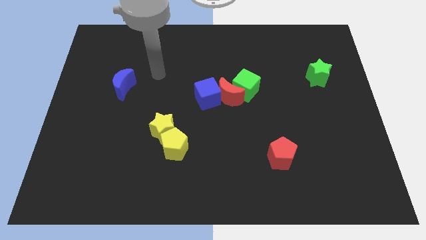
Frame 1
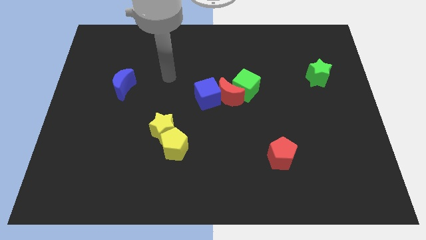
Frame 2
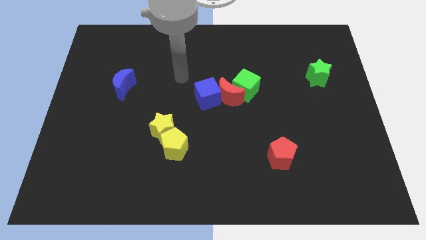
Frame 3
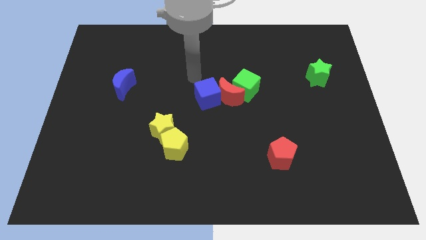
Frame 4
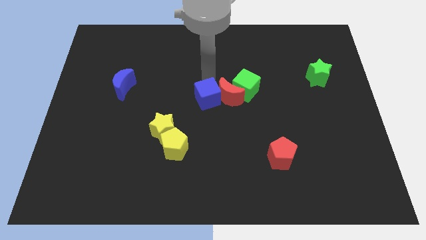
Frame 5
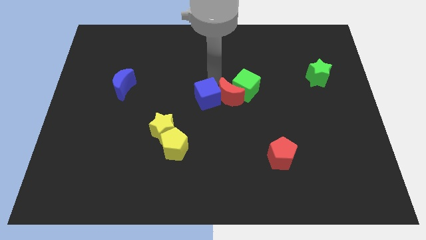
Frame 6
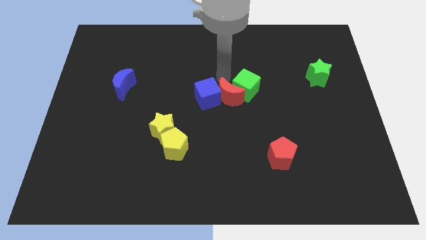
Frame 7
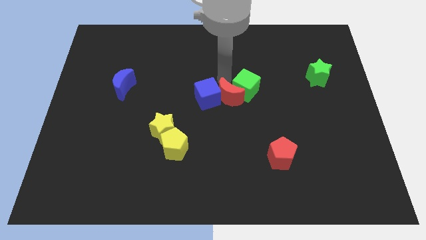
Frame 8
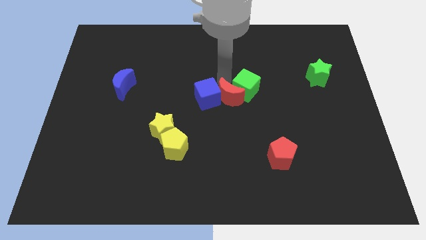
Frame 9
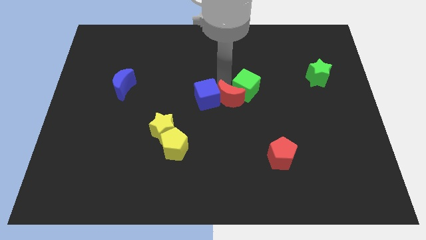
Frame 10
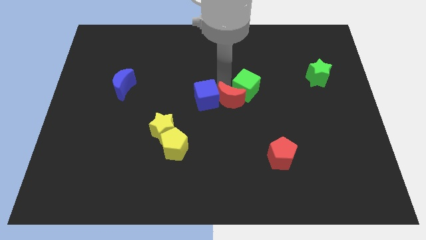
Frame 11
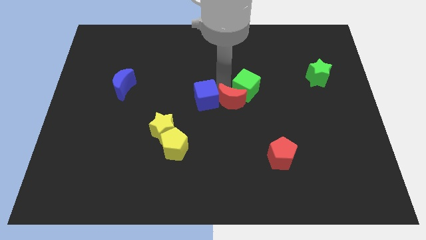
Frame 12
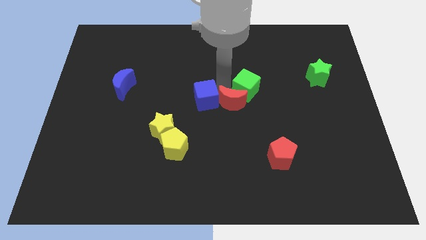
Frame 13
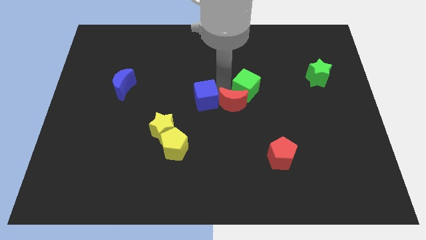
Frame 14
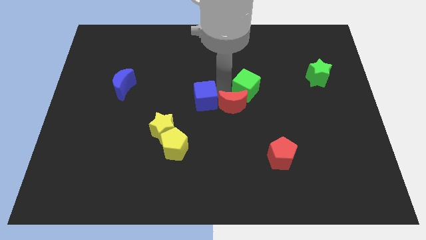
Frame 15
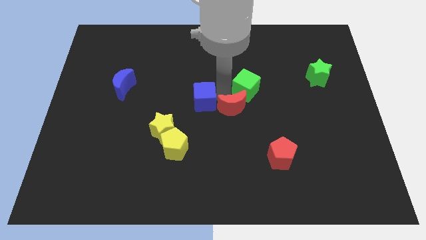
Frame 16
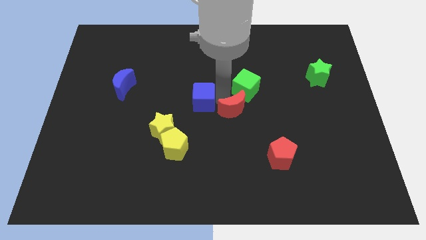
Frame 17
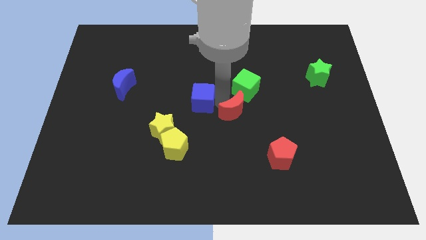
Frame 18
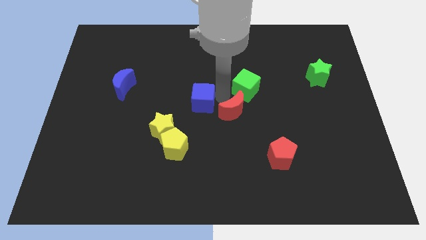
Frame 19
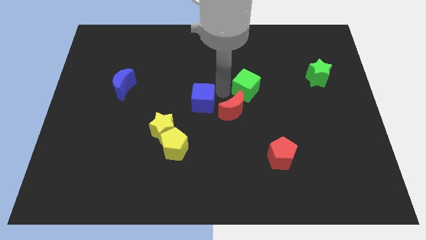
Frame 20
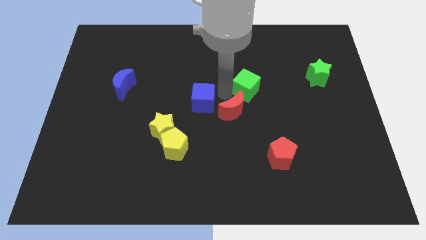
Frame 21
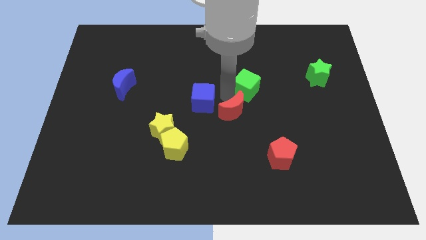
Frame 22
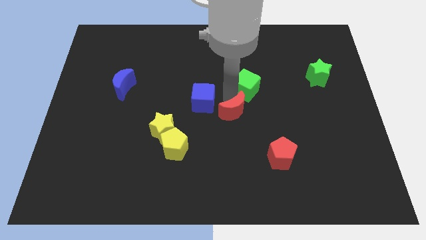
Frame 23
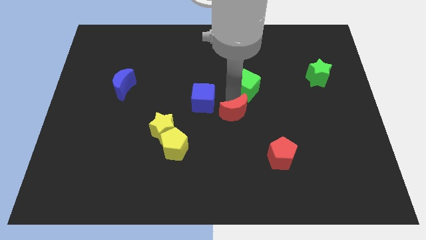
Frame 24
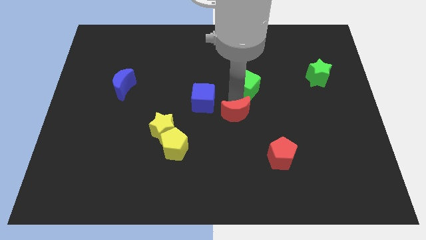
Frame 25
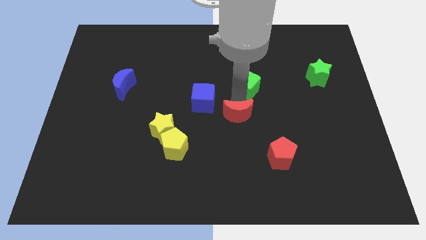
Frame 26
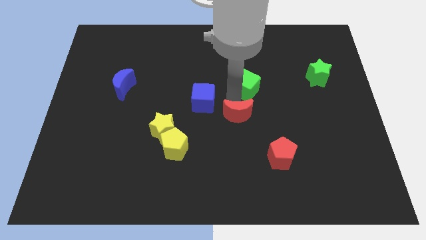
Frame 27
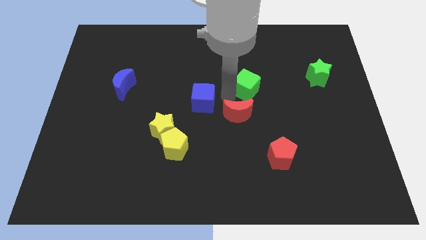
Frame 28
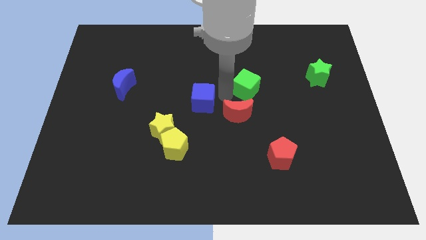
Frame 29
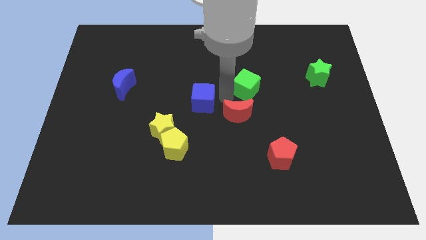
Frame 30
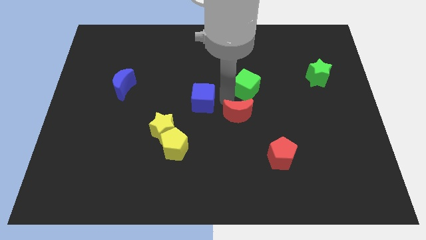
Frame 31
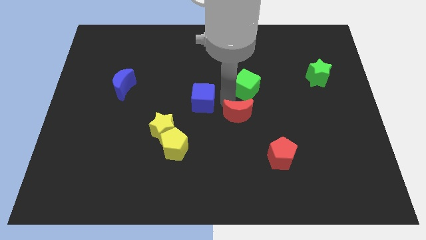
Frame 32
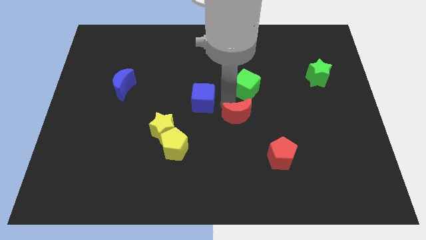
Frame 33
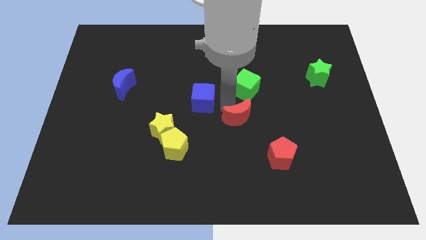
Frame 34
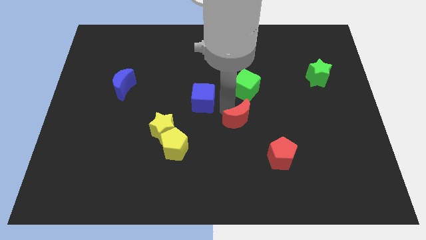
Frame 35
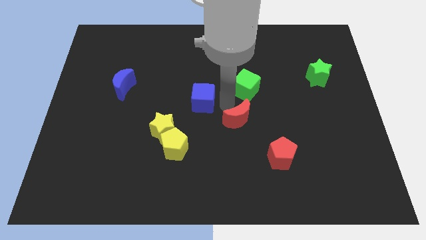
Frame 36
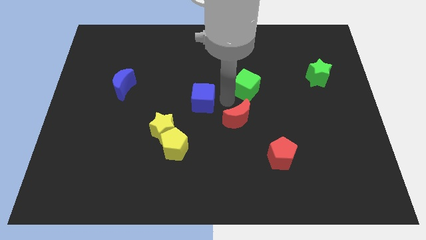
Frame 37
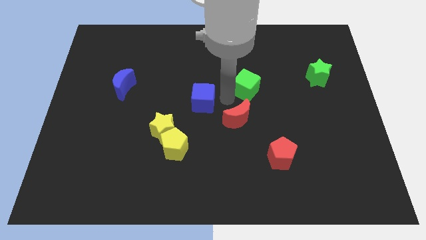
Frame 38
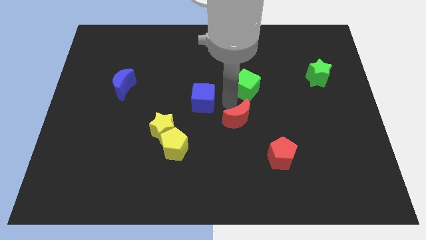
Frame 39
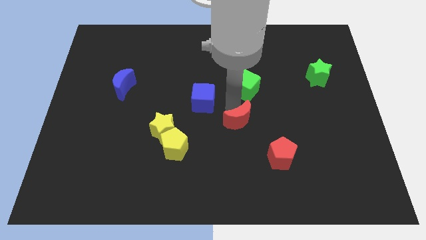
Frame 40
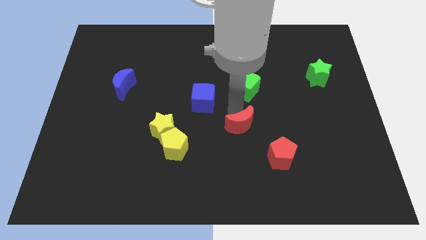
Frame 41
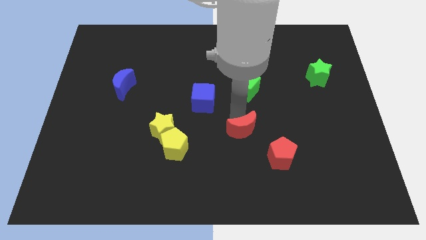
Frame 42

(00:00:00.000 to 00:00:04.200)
pull the red moon apart from the green cube and blue cube

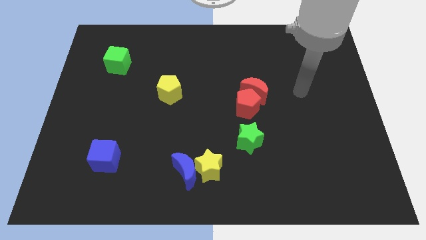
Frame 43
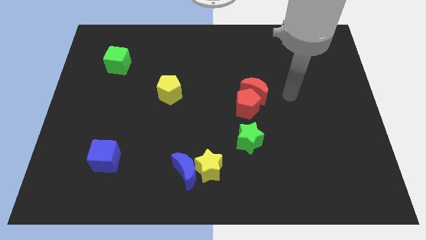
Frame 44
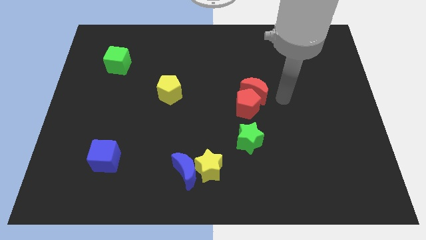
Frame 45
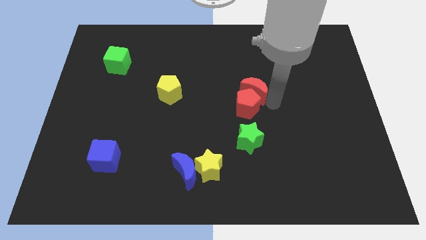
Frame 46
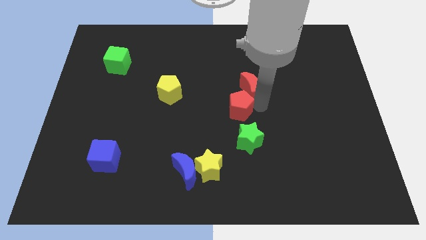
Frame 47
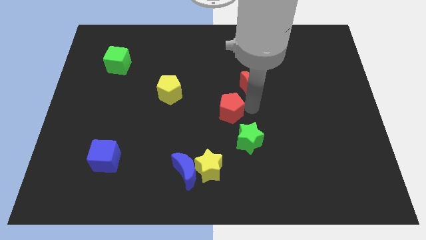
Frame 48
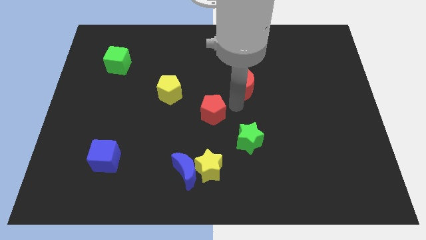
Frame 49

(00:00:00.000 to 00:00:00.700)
pull the red moon apart from the red pentagon

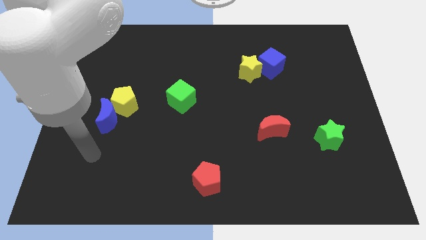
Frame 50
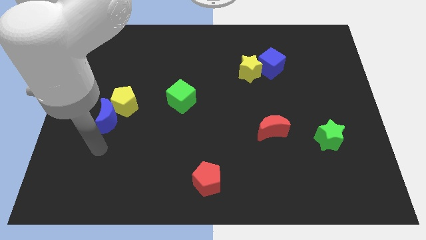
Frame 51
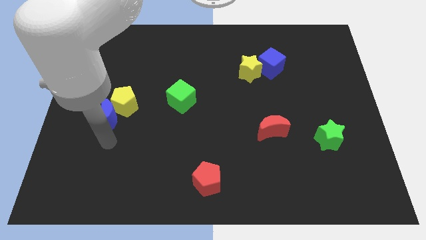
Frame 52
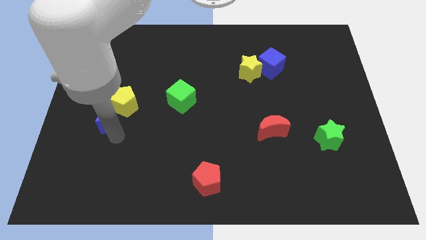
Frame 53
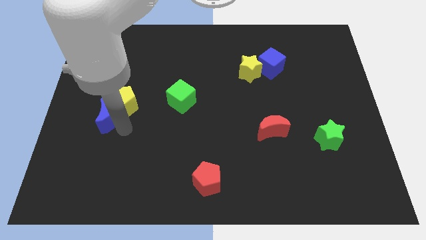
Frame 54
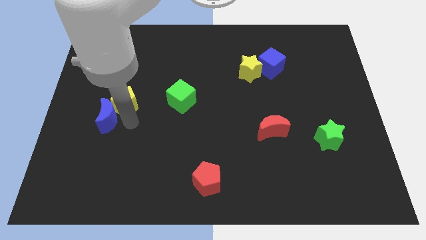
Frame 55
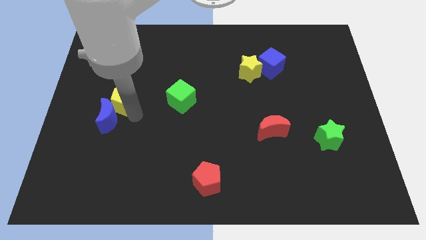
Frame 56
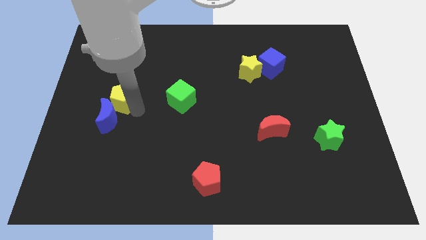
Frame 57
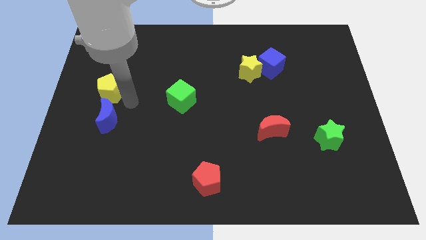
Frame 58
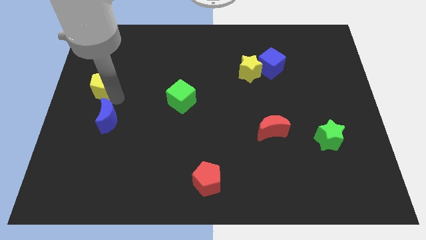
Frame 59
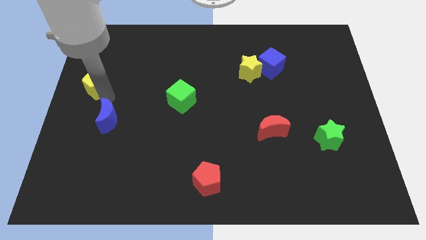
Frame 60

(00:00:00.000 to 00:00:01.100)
separate the blue moon from the yellow pentagon

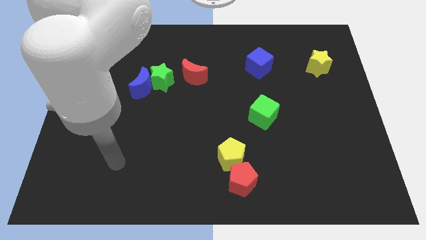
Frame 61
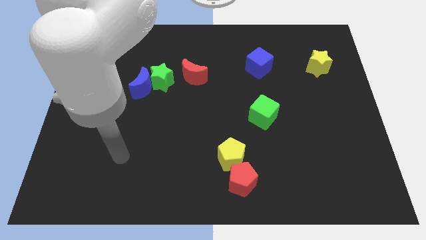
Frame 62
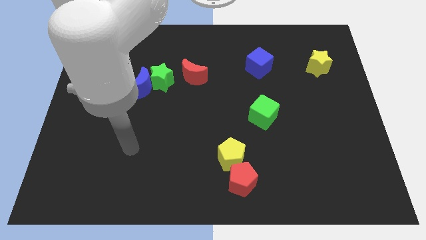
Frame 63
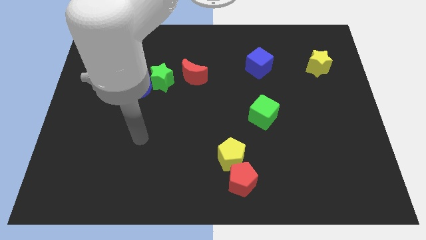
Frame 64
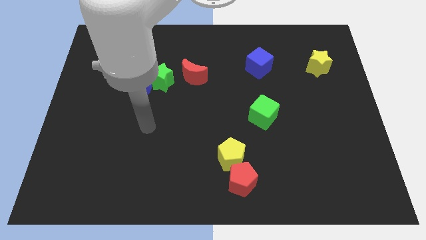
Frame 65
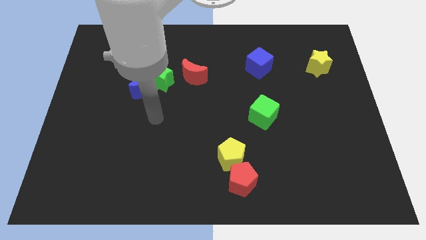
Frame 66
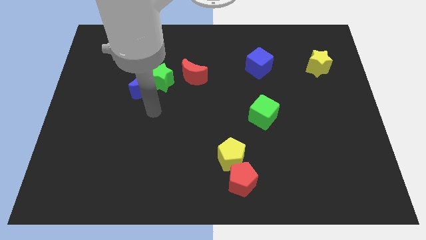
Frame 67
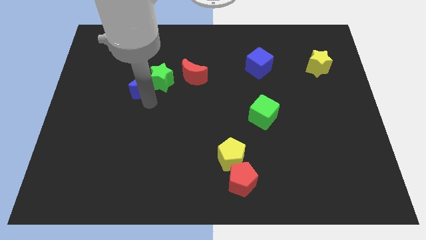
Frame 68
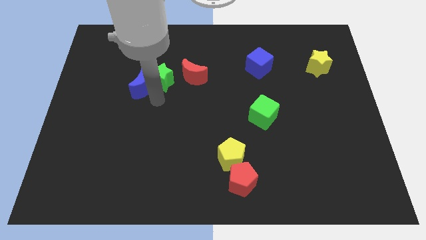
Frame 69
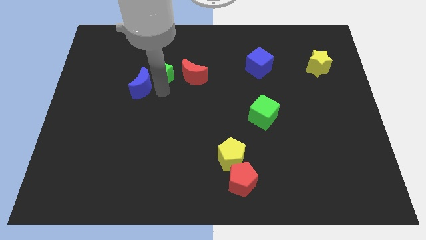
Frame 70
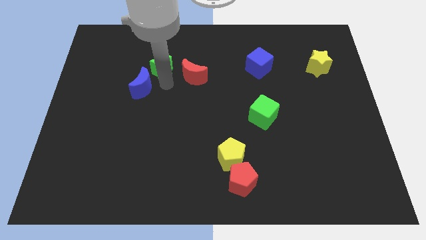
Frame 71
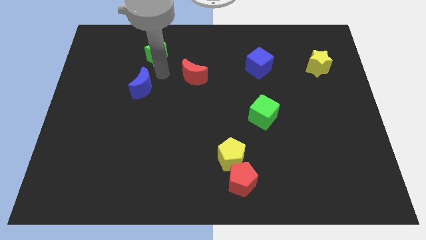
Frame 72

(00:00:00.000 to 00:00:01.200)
separate the blue moon from the green star

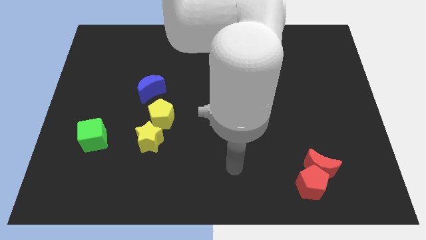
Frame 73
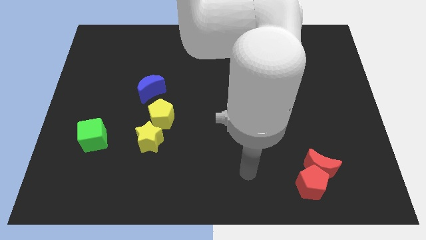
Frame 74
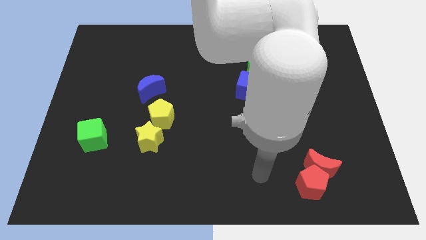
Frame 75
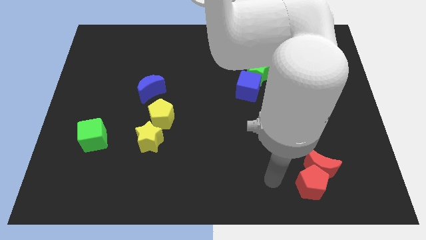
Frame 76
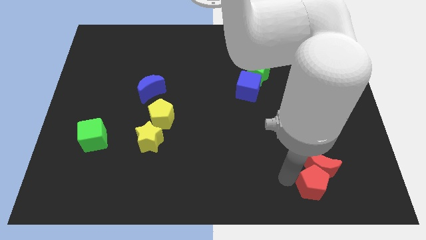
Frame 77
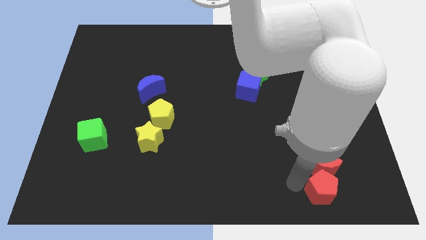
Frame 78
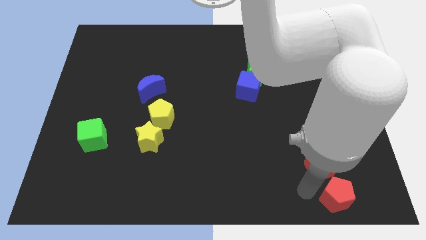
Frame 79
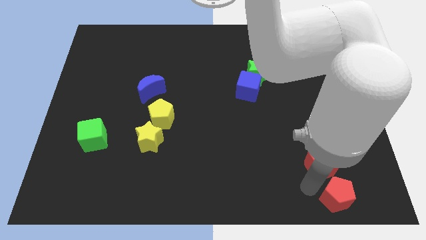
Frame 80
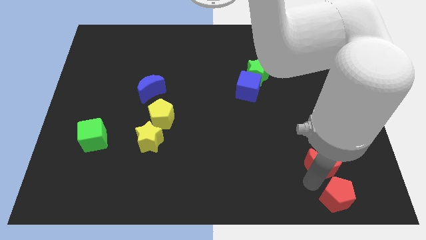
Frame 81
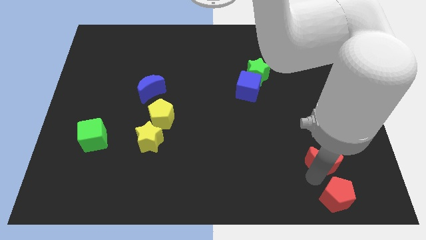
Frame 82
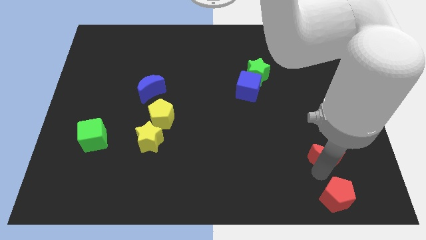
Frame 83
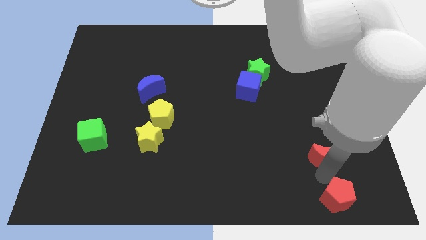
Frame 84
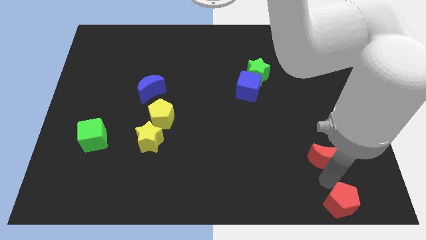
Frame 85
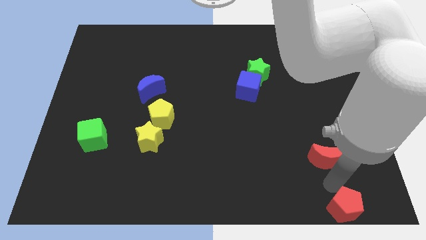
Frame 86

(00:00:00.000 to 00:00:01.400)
move the red moon away from the red pentagon

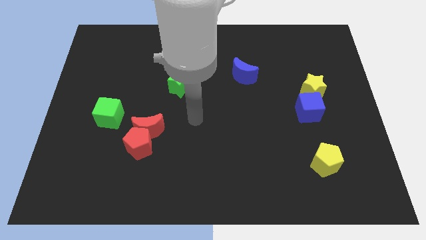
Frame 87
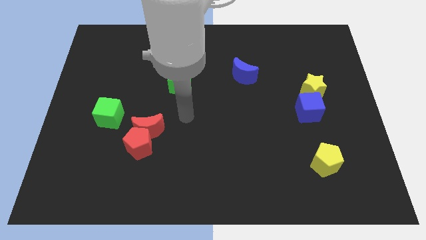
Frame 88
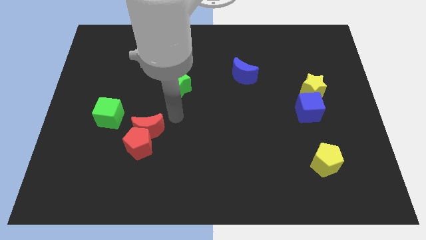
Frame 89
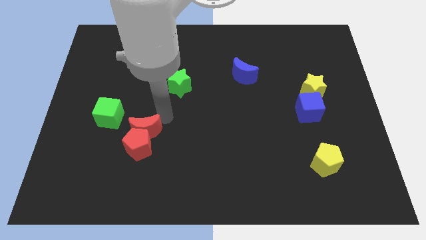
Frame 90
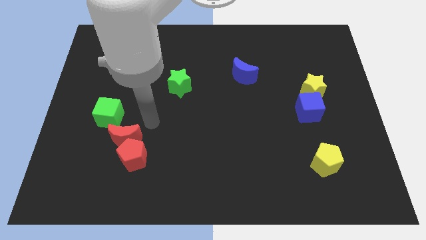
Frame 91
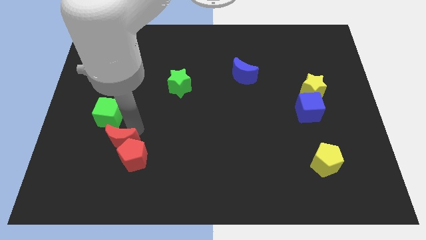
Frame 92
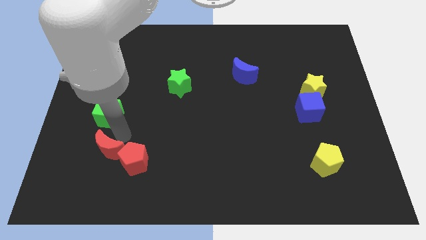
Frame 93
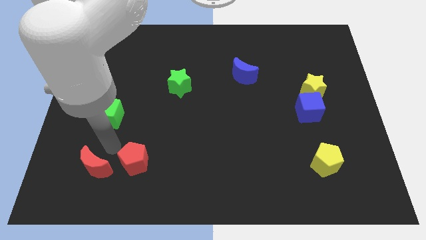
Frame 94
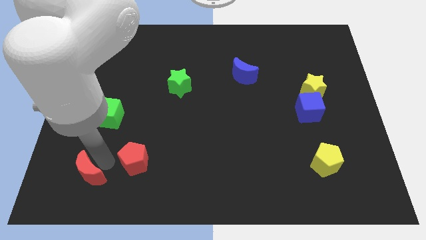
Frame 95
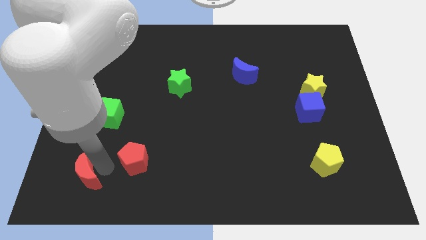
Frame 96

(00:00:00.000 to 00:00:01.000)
separate the red pentagon from the red moon
